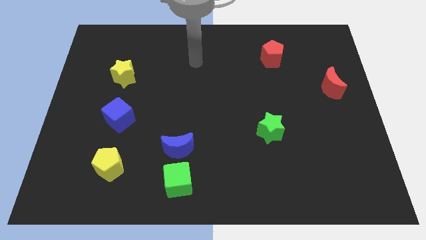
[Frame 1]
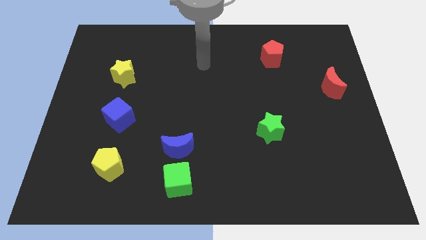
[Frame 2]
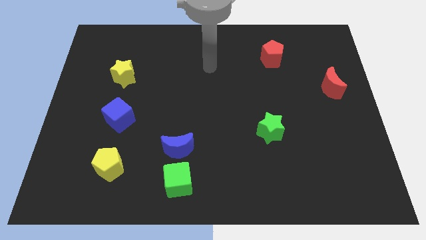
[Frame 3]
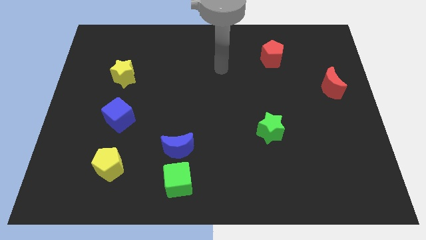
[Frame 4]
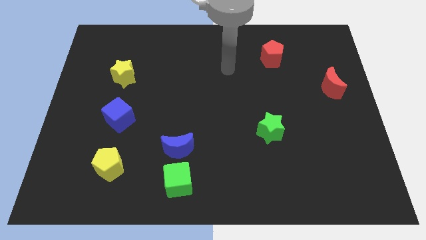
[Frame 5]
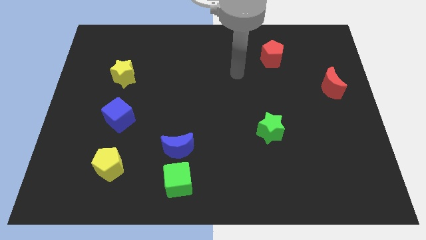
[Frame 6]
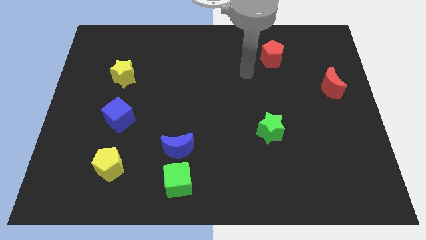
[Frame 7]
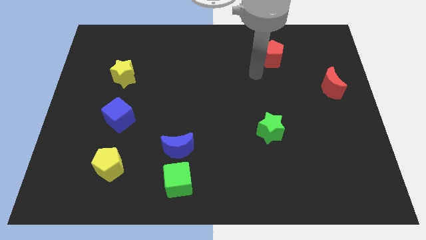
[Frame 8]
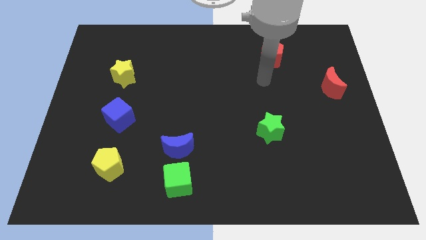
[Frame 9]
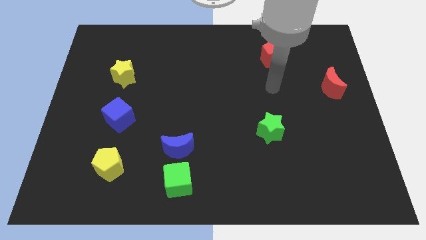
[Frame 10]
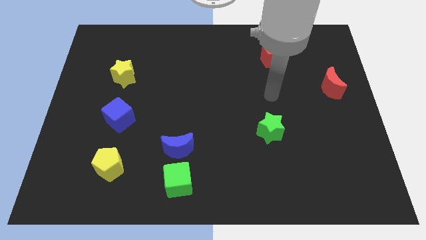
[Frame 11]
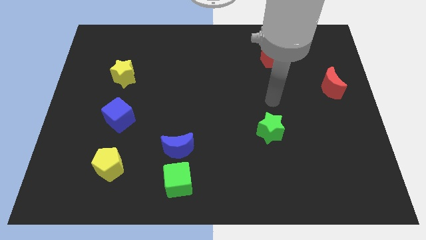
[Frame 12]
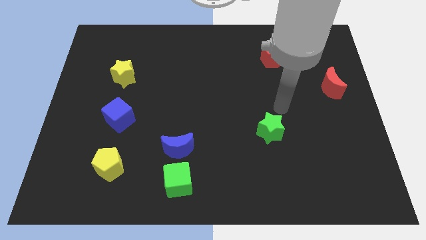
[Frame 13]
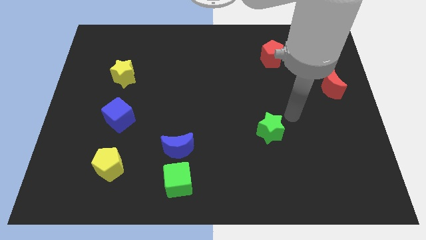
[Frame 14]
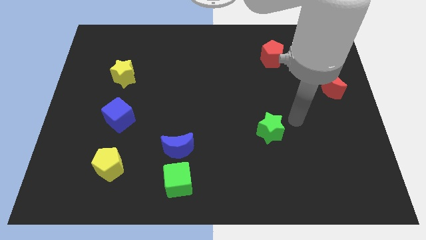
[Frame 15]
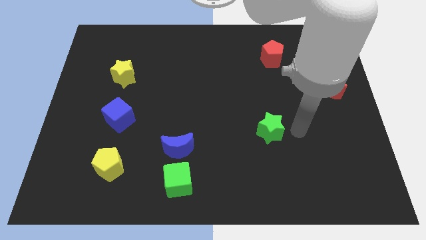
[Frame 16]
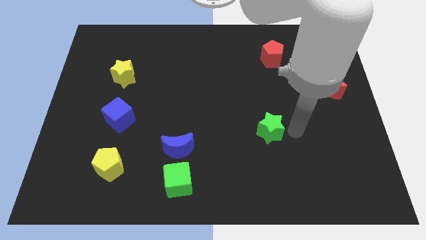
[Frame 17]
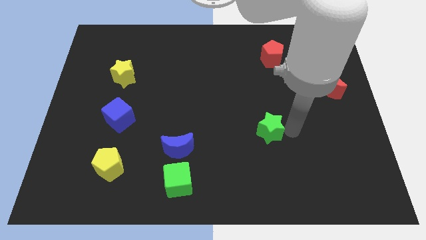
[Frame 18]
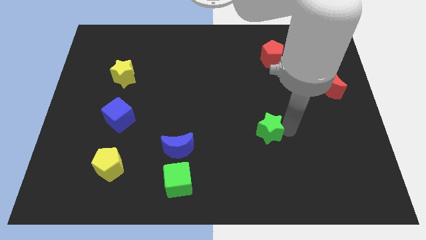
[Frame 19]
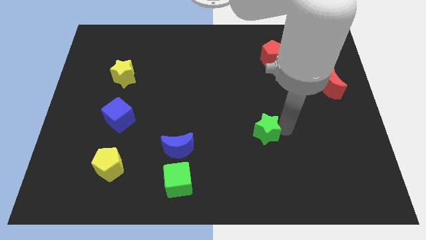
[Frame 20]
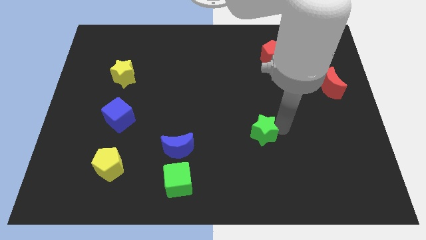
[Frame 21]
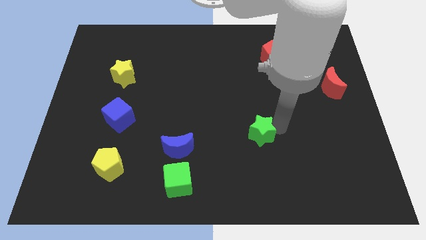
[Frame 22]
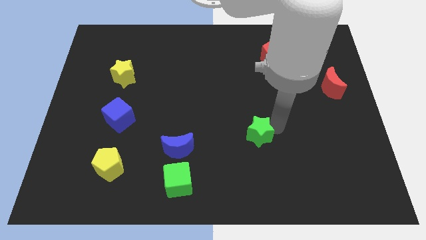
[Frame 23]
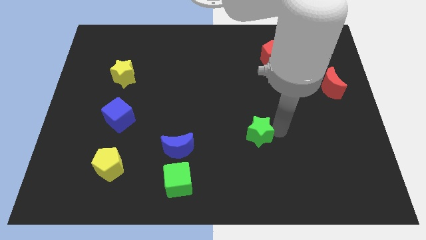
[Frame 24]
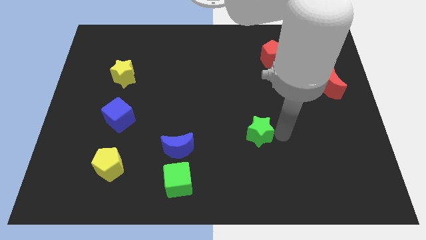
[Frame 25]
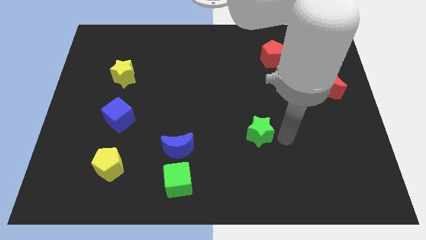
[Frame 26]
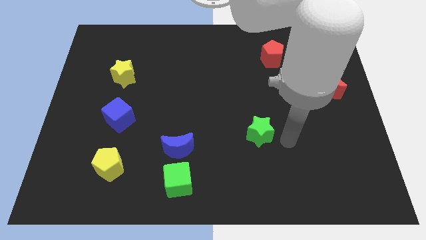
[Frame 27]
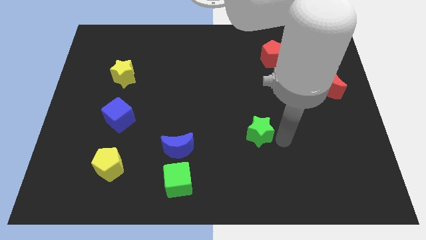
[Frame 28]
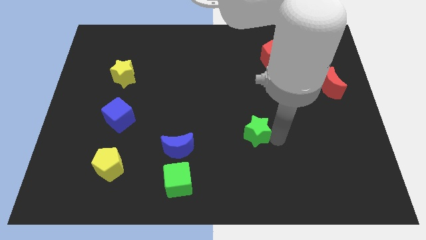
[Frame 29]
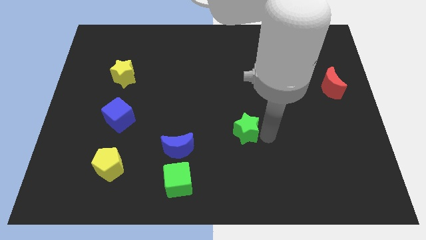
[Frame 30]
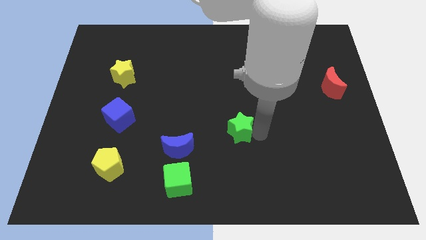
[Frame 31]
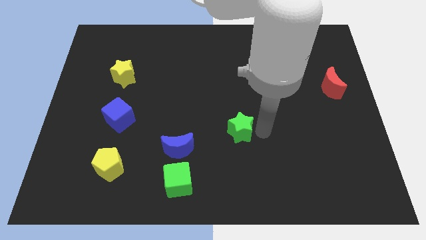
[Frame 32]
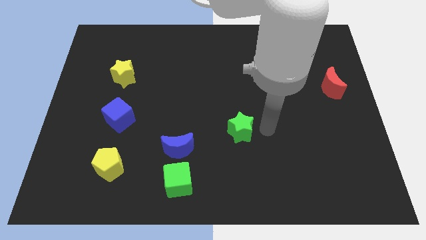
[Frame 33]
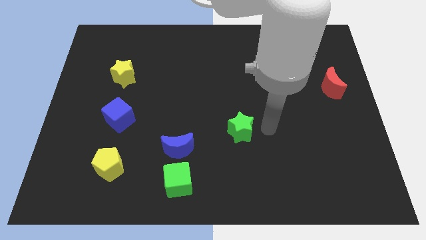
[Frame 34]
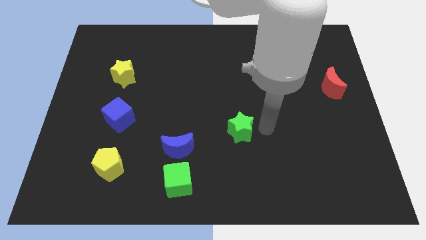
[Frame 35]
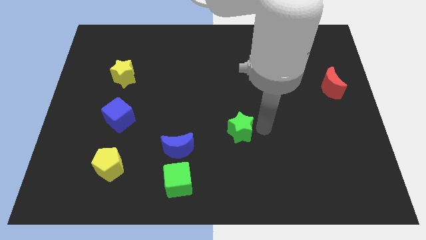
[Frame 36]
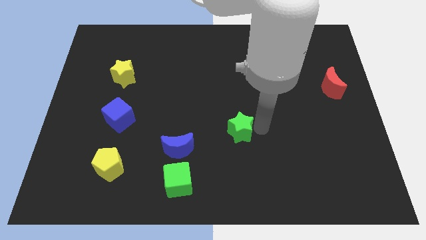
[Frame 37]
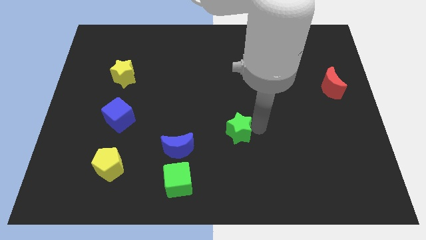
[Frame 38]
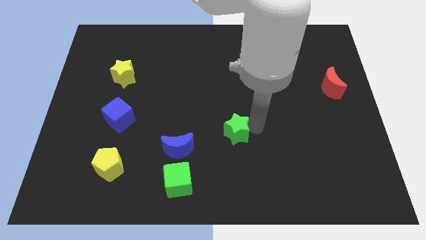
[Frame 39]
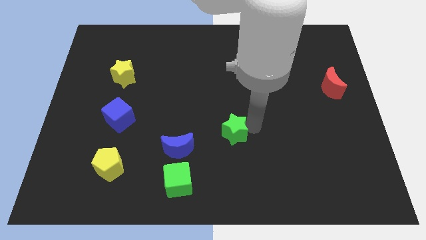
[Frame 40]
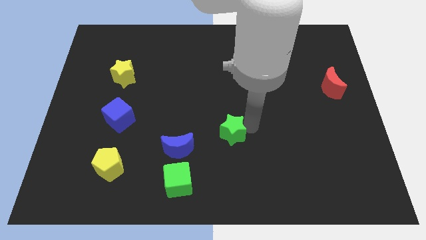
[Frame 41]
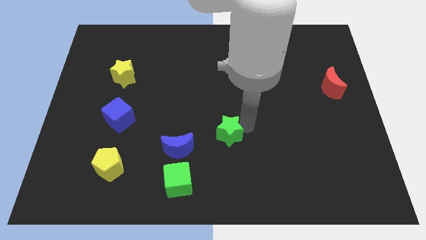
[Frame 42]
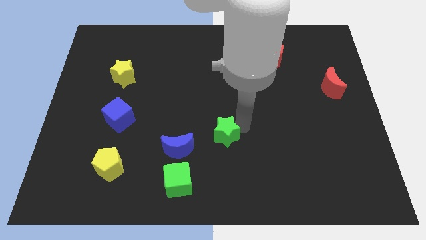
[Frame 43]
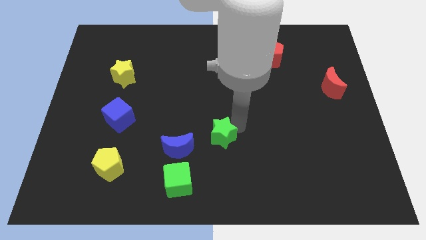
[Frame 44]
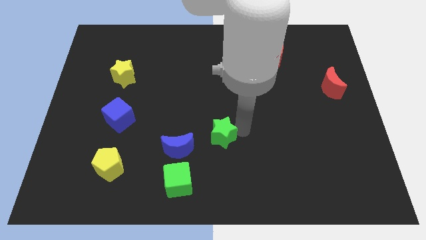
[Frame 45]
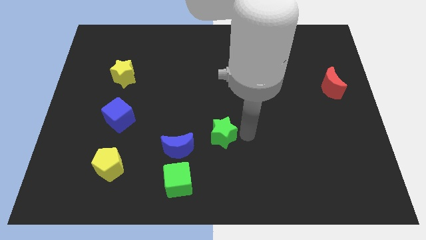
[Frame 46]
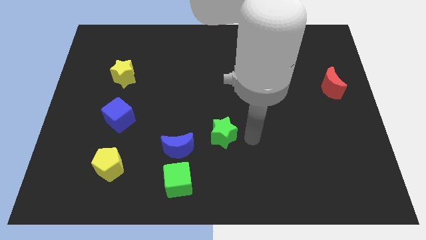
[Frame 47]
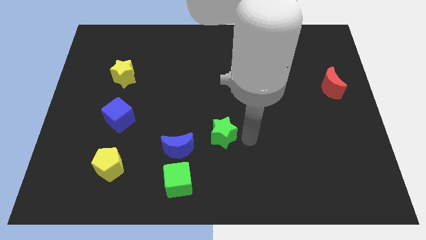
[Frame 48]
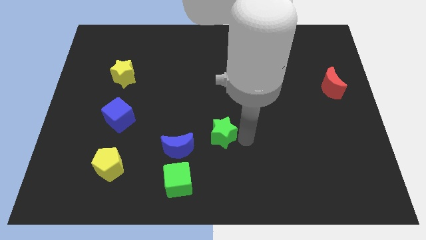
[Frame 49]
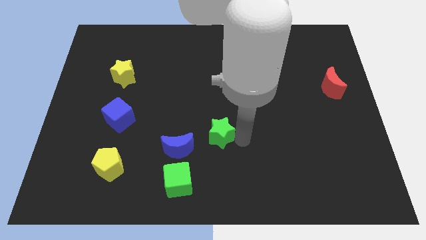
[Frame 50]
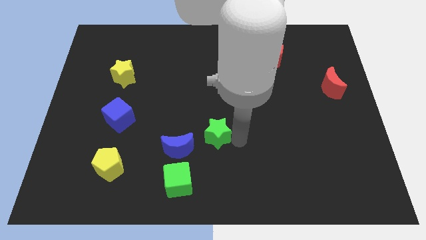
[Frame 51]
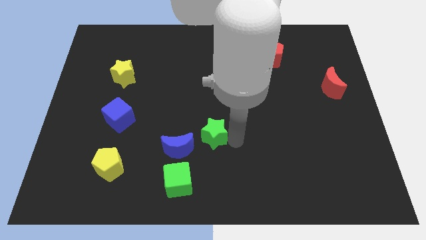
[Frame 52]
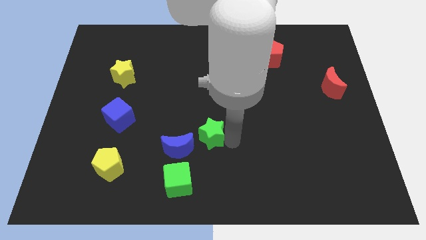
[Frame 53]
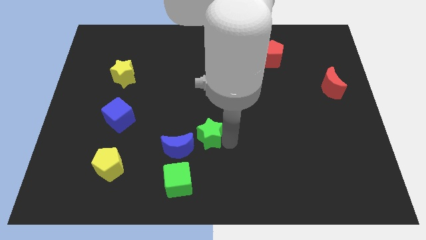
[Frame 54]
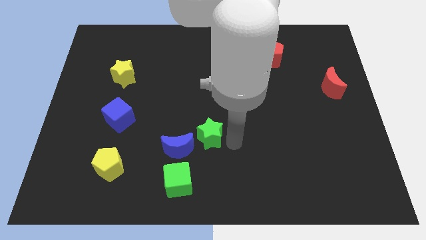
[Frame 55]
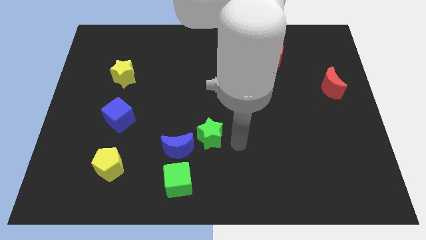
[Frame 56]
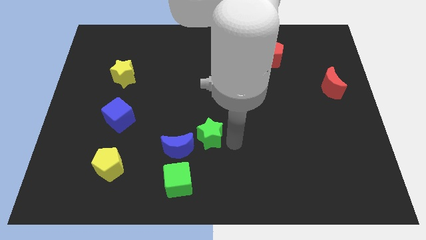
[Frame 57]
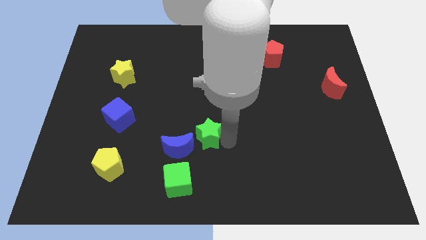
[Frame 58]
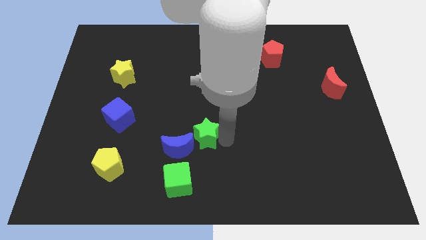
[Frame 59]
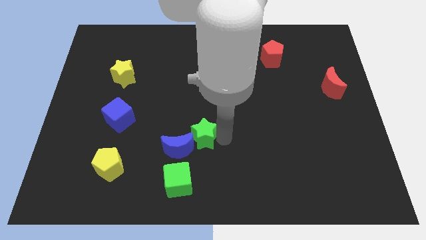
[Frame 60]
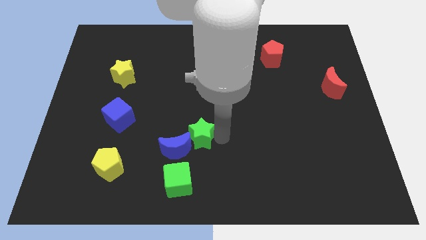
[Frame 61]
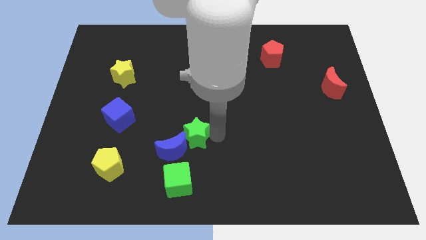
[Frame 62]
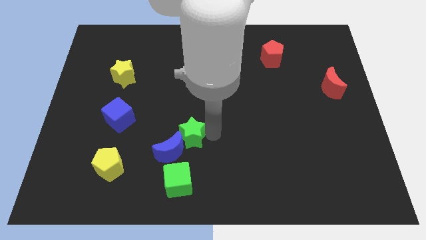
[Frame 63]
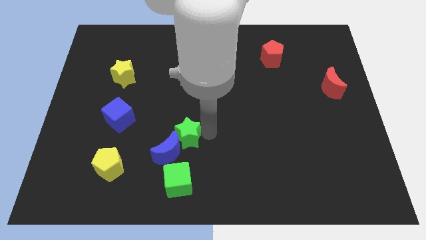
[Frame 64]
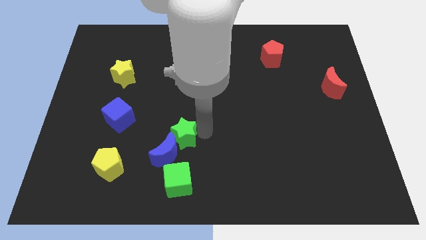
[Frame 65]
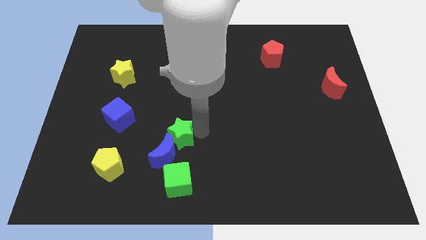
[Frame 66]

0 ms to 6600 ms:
slide the green star to the left

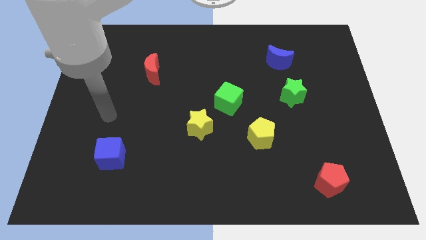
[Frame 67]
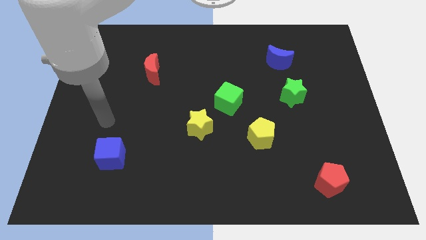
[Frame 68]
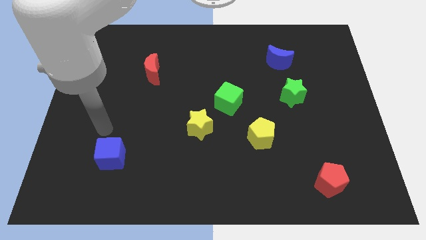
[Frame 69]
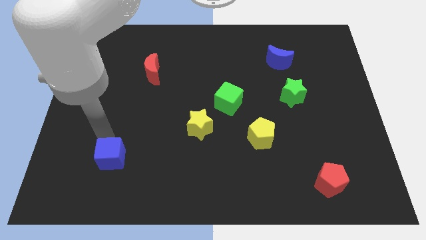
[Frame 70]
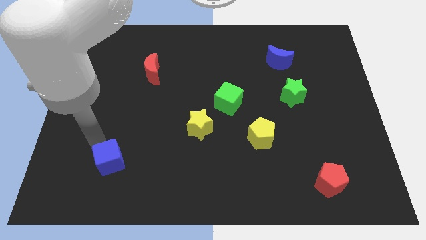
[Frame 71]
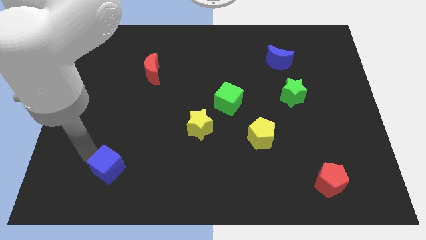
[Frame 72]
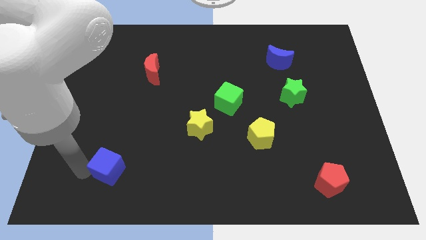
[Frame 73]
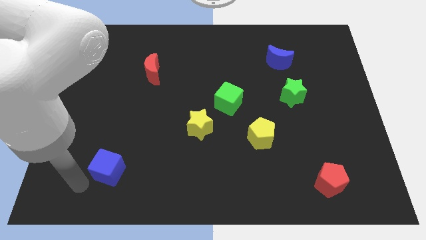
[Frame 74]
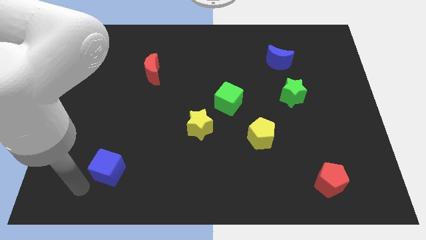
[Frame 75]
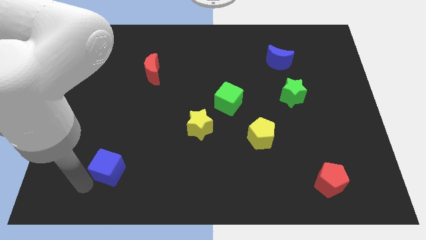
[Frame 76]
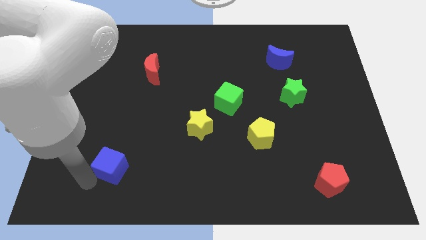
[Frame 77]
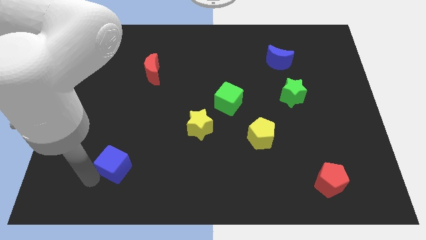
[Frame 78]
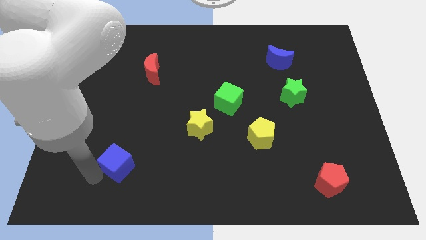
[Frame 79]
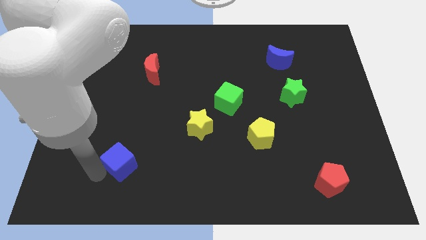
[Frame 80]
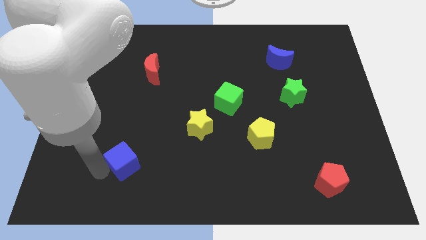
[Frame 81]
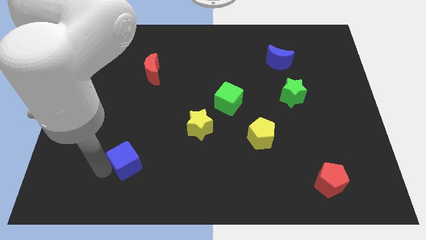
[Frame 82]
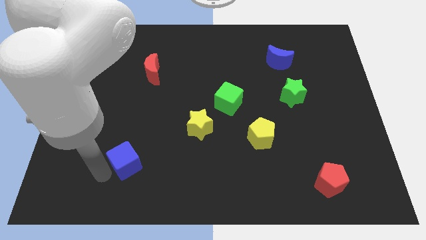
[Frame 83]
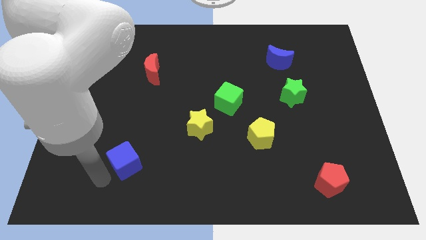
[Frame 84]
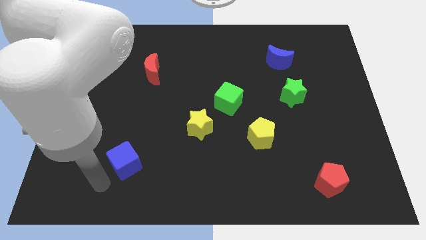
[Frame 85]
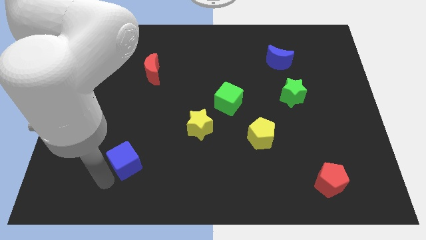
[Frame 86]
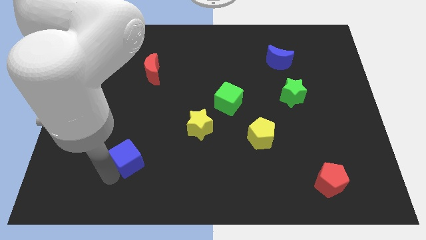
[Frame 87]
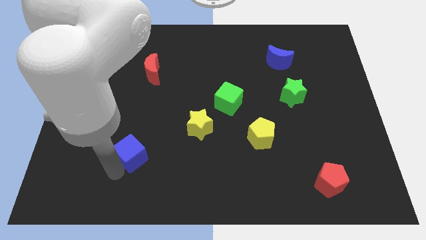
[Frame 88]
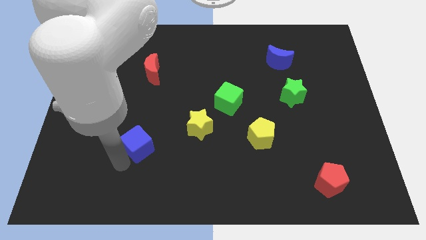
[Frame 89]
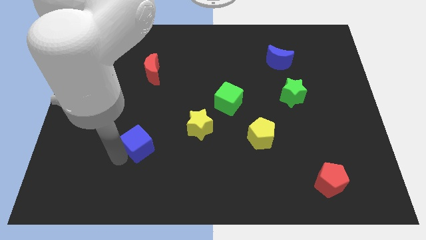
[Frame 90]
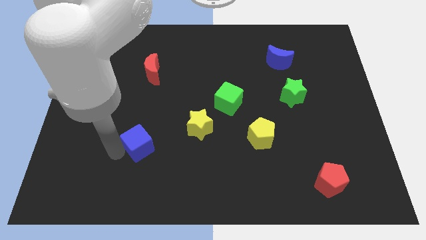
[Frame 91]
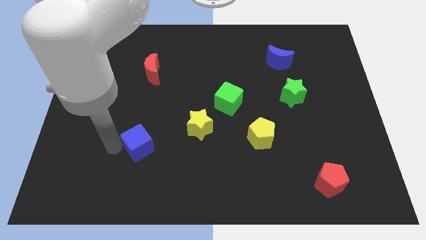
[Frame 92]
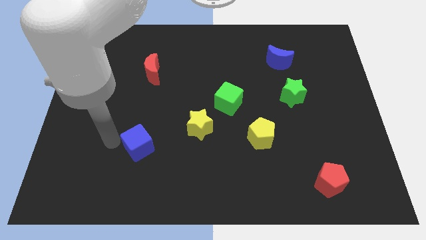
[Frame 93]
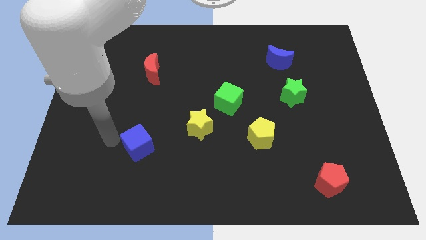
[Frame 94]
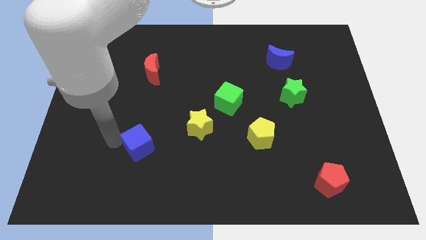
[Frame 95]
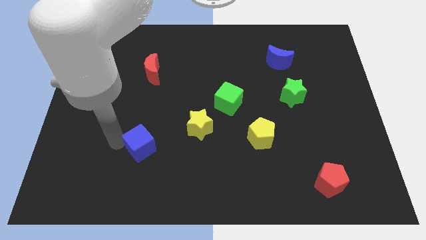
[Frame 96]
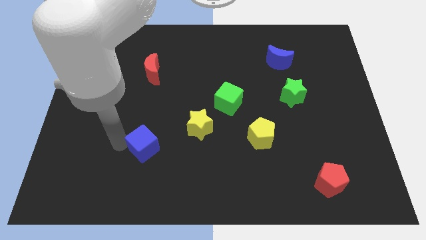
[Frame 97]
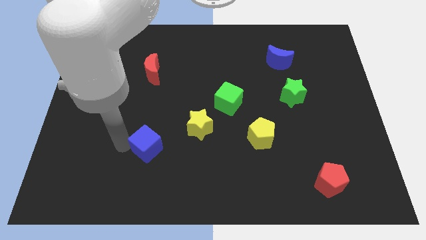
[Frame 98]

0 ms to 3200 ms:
slide the blue cube to the right slightly
